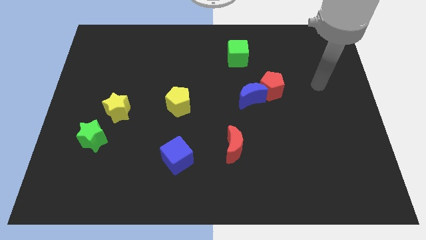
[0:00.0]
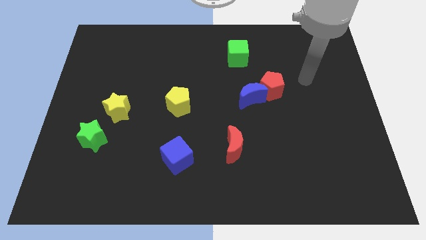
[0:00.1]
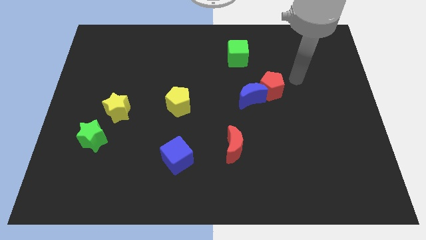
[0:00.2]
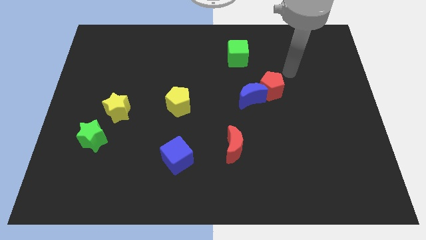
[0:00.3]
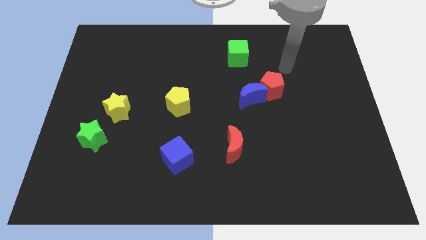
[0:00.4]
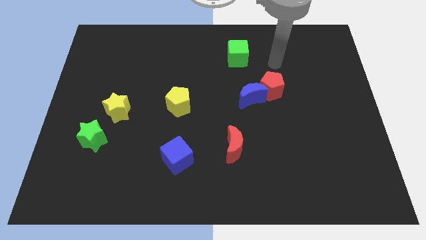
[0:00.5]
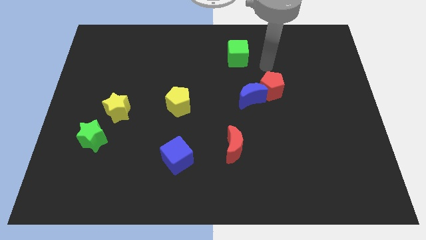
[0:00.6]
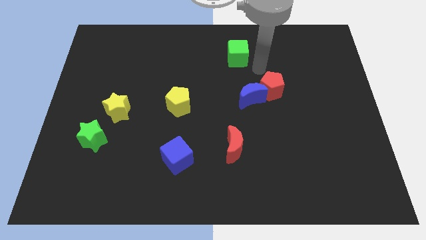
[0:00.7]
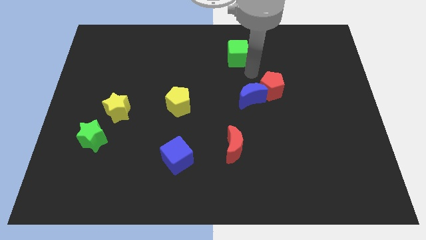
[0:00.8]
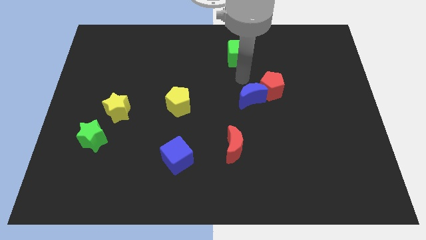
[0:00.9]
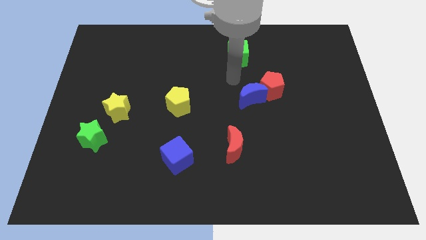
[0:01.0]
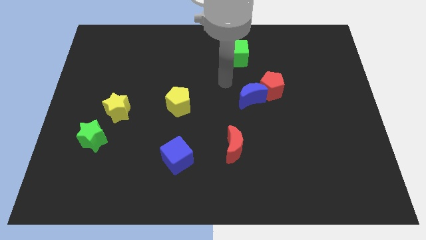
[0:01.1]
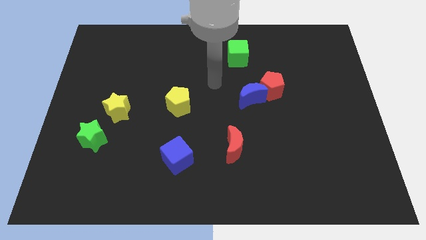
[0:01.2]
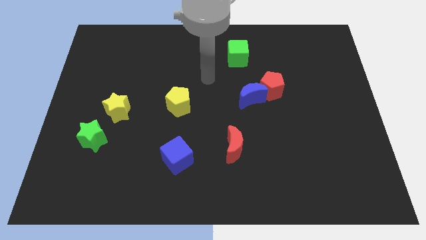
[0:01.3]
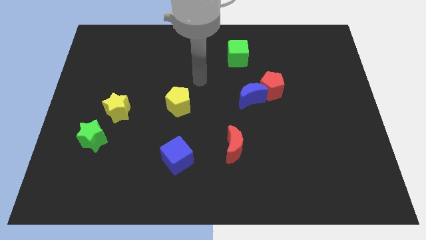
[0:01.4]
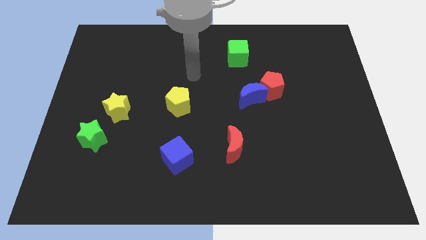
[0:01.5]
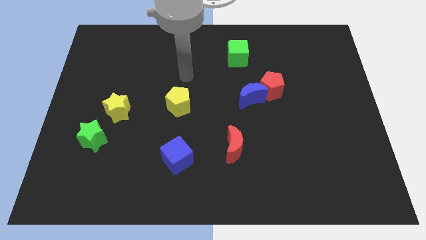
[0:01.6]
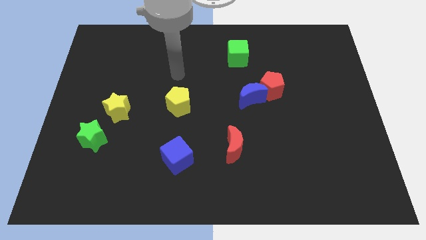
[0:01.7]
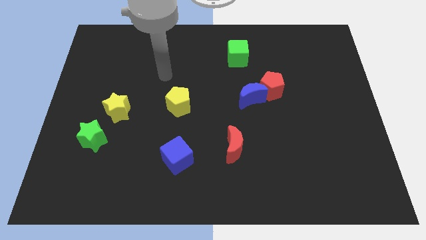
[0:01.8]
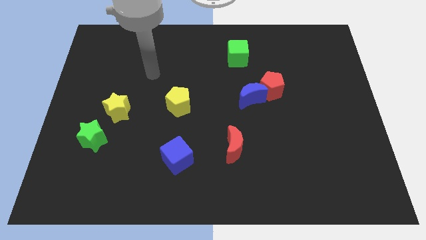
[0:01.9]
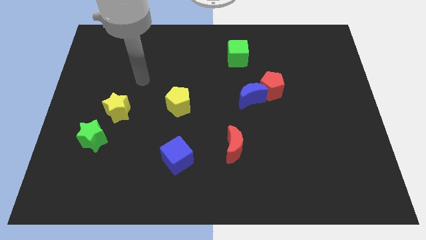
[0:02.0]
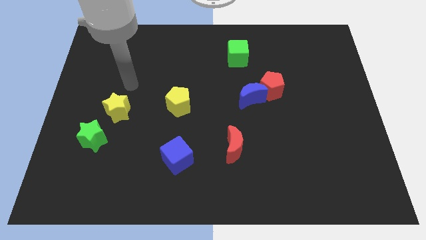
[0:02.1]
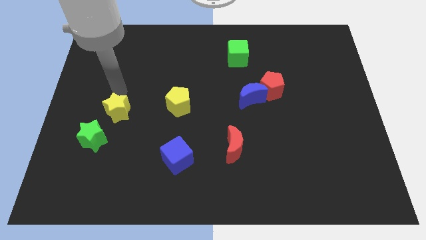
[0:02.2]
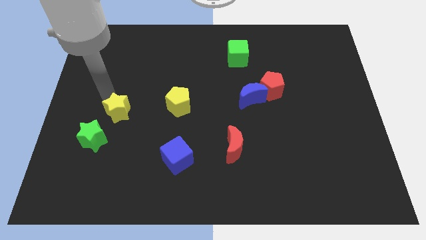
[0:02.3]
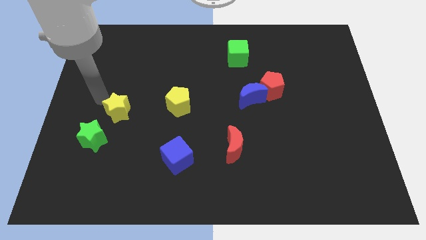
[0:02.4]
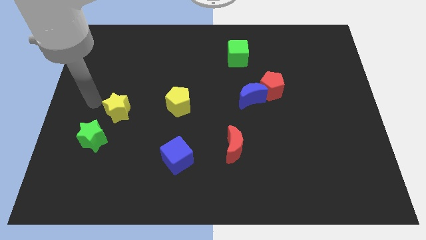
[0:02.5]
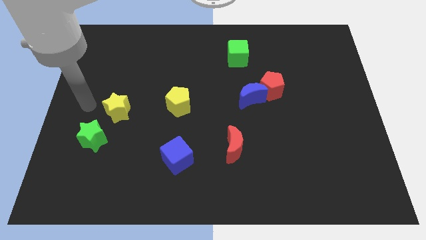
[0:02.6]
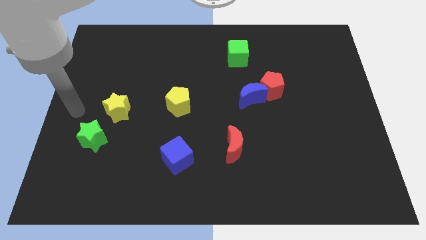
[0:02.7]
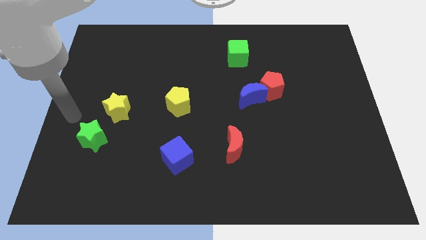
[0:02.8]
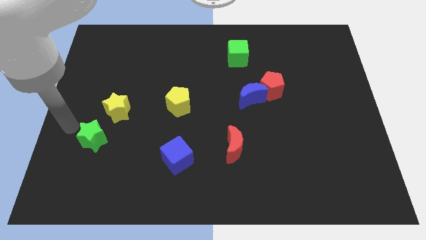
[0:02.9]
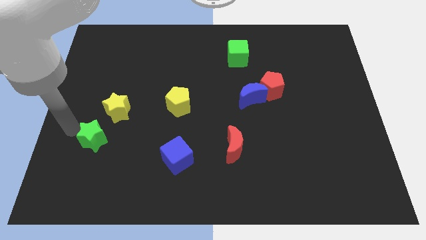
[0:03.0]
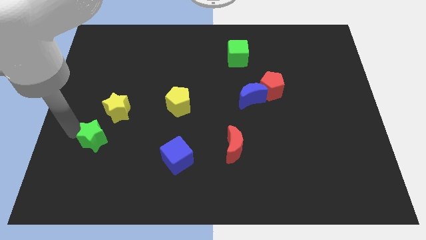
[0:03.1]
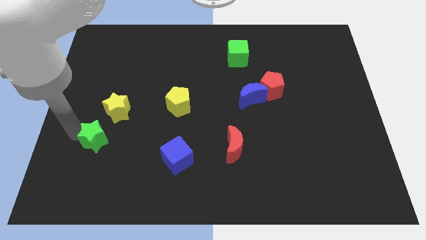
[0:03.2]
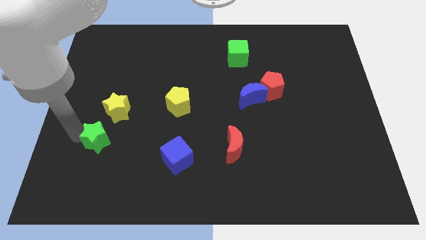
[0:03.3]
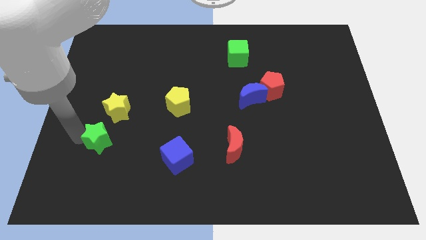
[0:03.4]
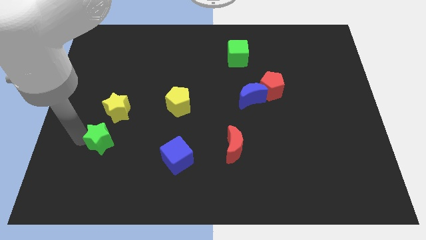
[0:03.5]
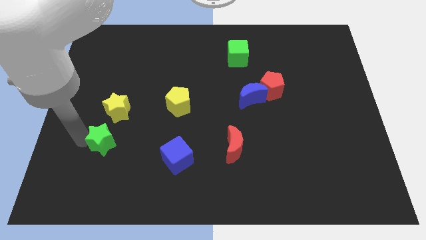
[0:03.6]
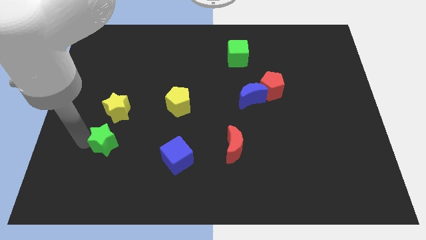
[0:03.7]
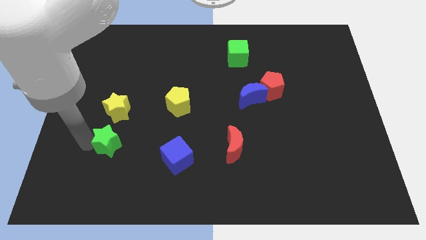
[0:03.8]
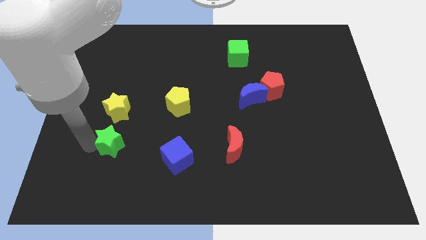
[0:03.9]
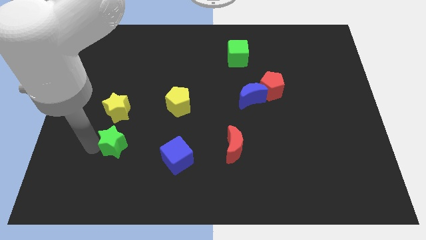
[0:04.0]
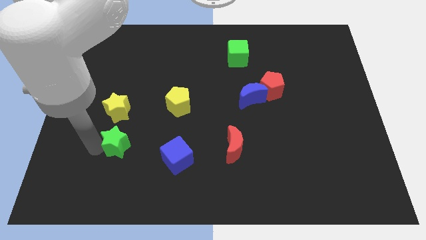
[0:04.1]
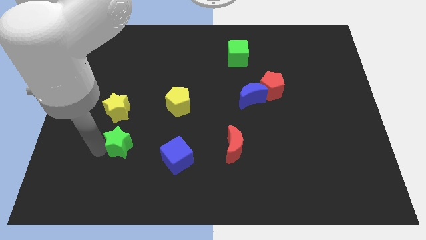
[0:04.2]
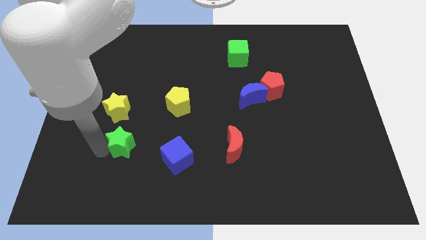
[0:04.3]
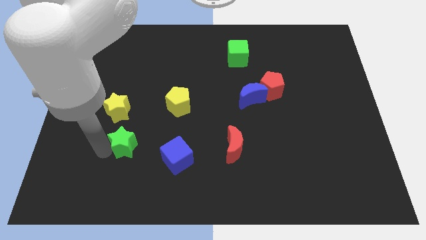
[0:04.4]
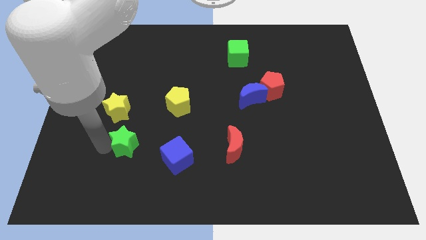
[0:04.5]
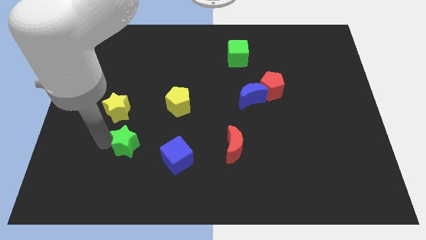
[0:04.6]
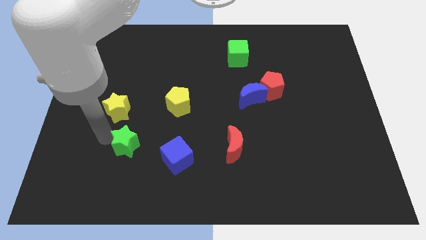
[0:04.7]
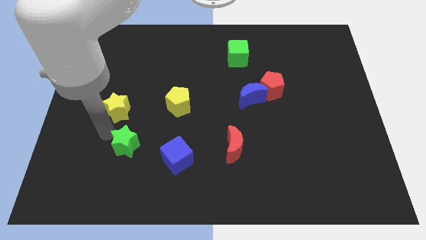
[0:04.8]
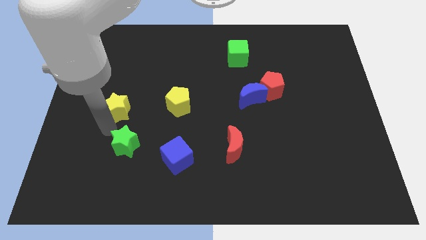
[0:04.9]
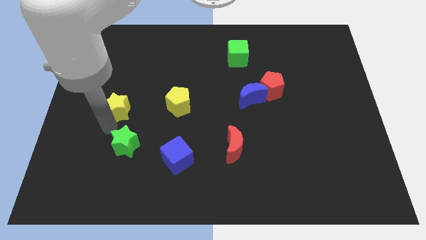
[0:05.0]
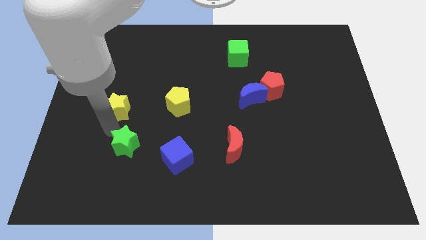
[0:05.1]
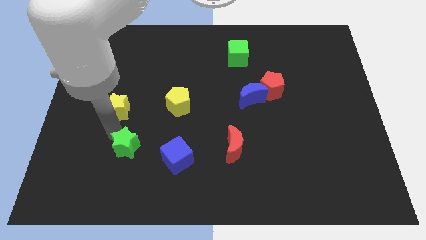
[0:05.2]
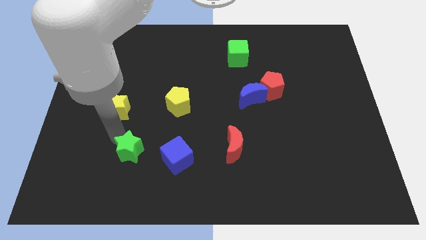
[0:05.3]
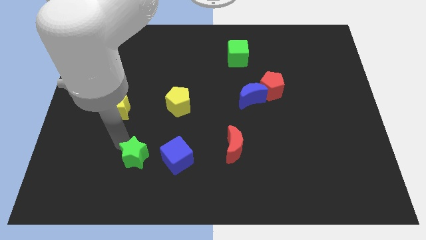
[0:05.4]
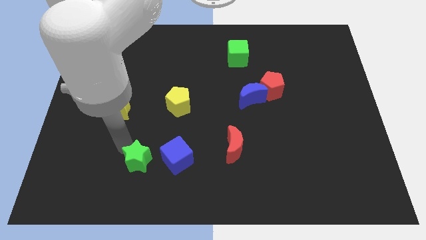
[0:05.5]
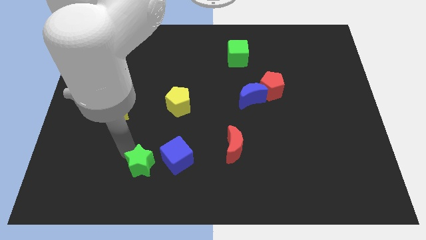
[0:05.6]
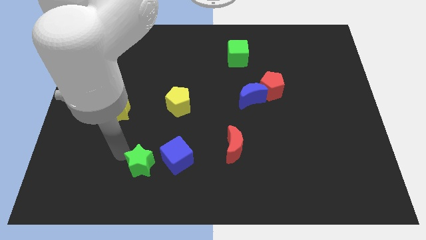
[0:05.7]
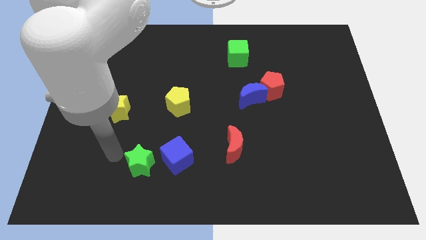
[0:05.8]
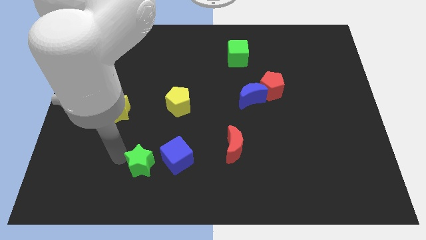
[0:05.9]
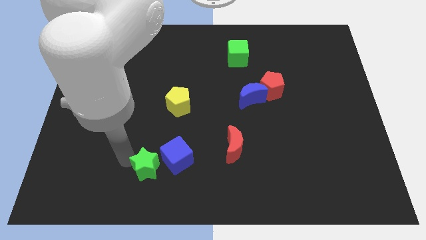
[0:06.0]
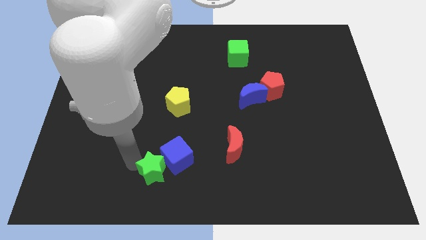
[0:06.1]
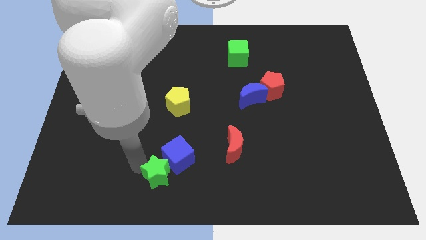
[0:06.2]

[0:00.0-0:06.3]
push the green star to the bottom side

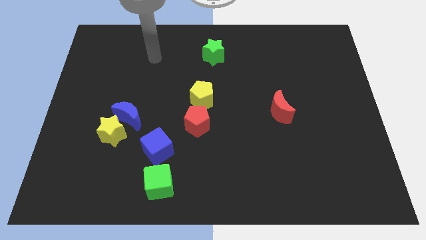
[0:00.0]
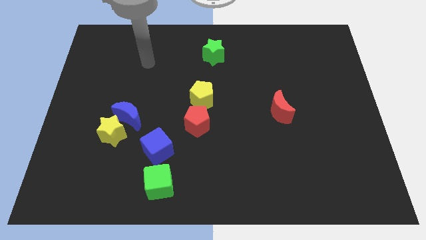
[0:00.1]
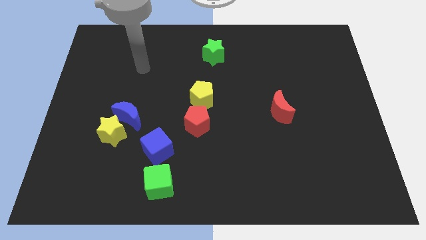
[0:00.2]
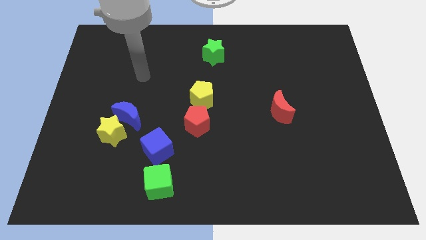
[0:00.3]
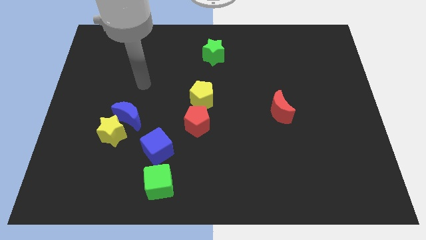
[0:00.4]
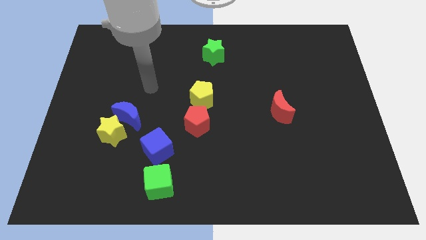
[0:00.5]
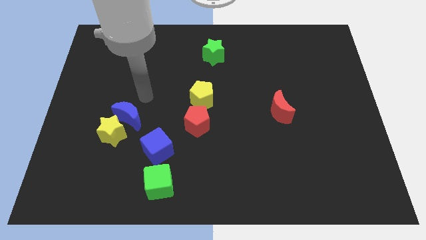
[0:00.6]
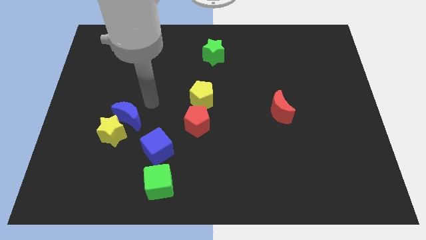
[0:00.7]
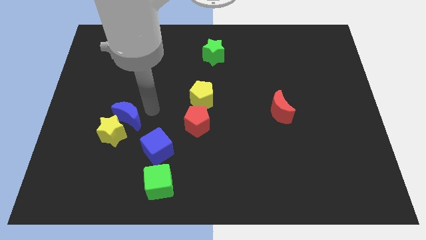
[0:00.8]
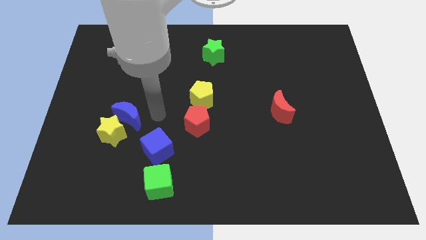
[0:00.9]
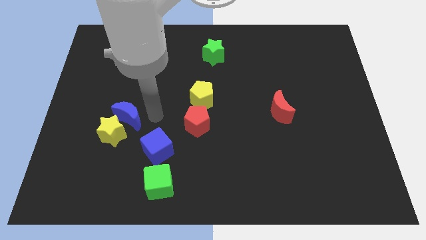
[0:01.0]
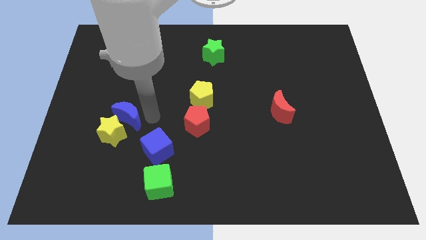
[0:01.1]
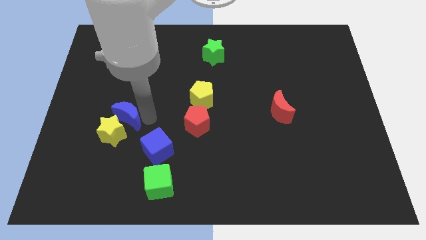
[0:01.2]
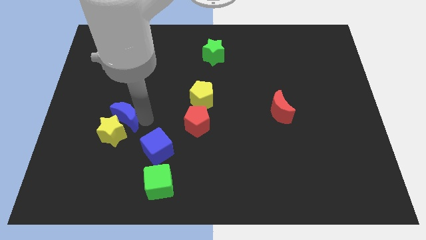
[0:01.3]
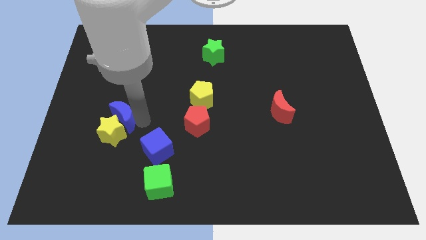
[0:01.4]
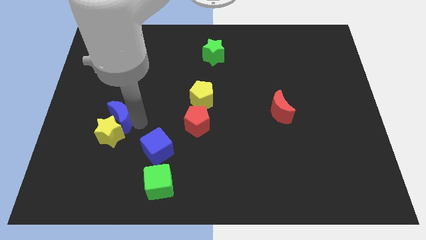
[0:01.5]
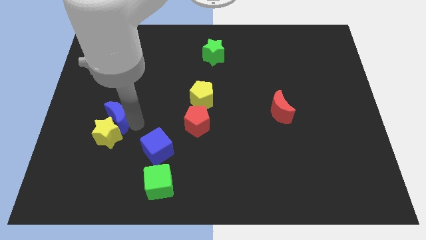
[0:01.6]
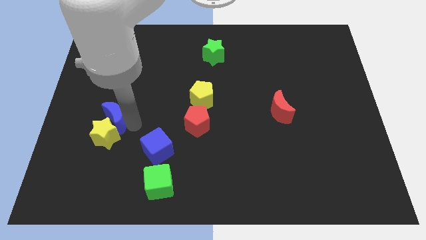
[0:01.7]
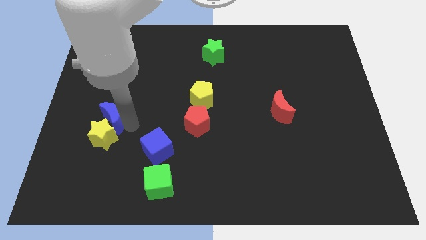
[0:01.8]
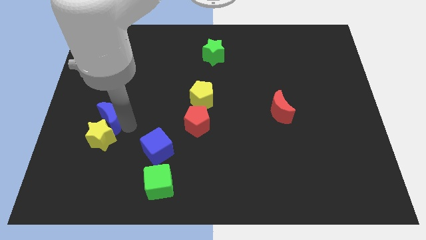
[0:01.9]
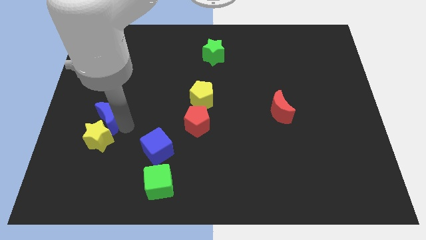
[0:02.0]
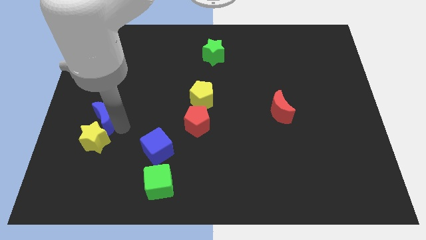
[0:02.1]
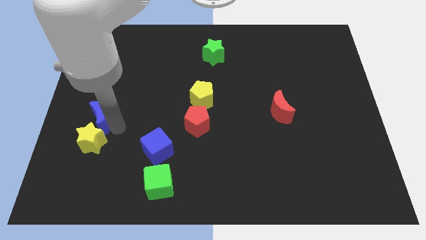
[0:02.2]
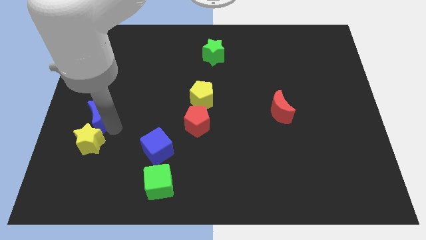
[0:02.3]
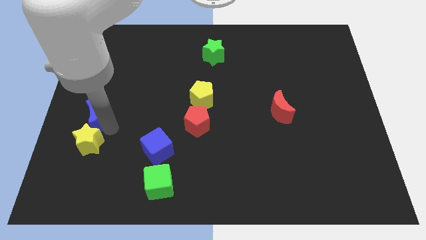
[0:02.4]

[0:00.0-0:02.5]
push the blue moon to the left side of the board
